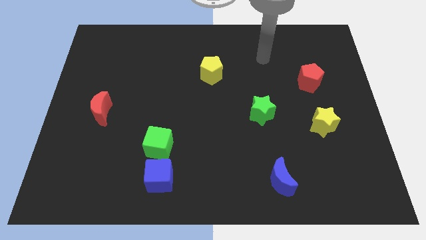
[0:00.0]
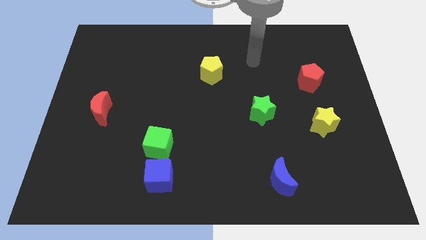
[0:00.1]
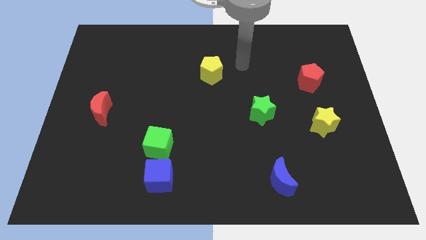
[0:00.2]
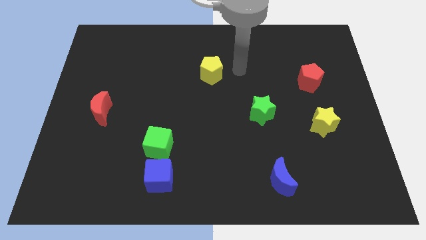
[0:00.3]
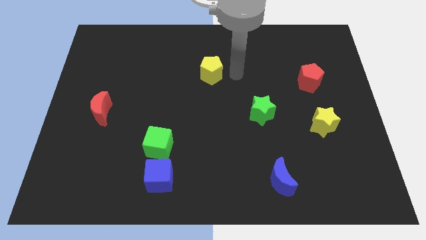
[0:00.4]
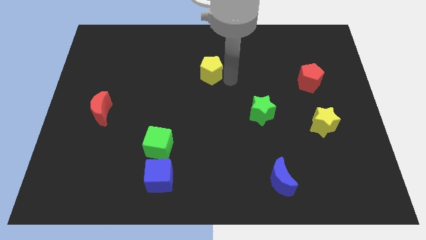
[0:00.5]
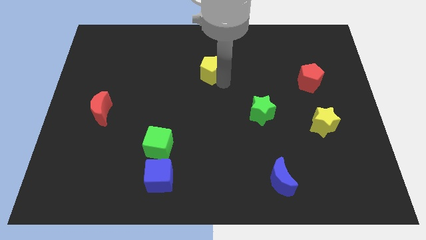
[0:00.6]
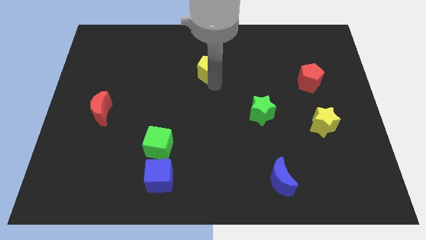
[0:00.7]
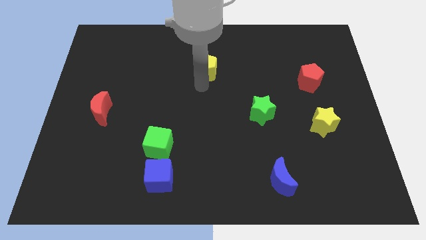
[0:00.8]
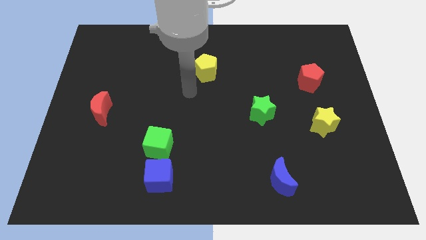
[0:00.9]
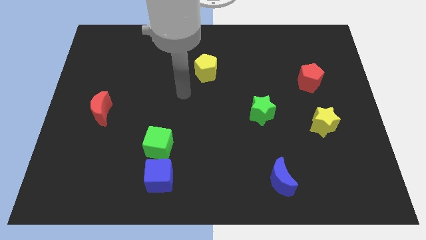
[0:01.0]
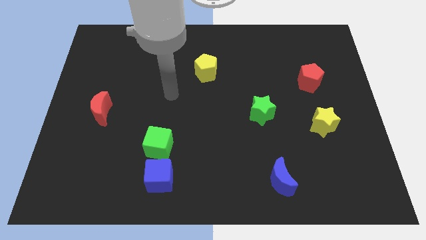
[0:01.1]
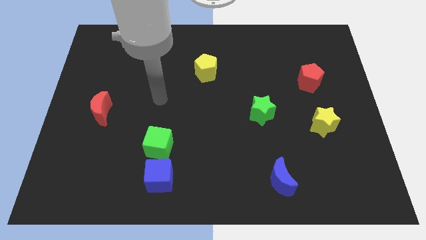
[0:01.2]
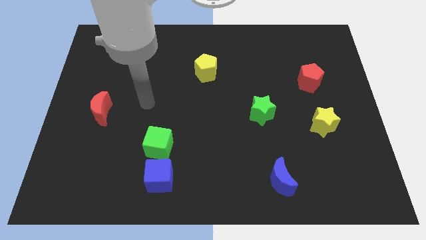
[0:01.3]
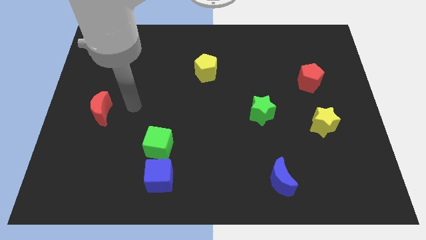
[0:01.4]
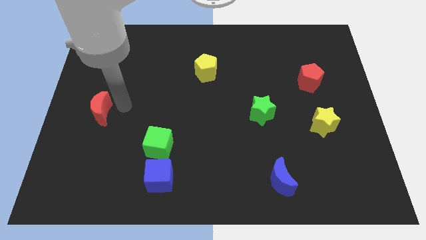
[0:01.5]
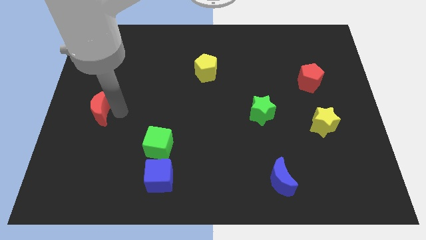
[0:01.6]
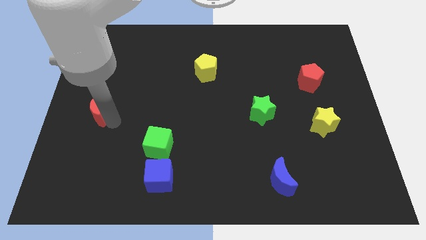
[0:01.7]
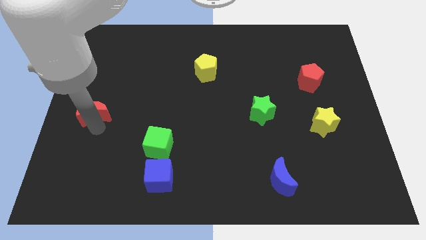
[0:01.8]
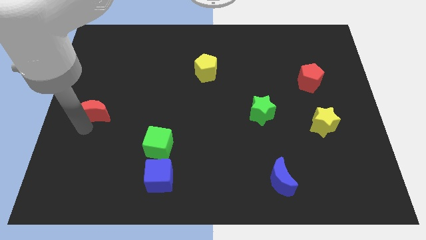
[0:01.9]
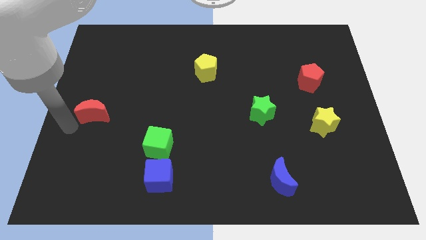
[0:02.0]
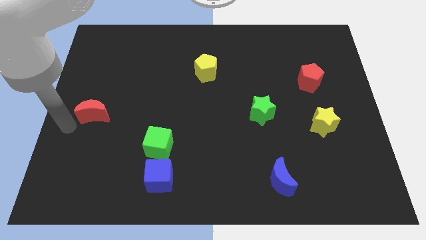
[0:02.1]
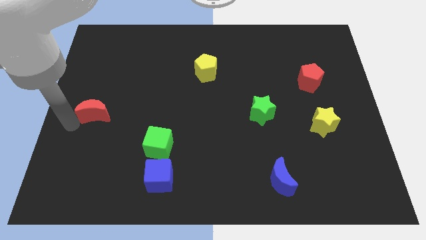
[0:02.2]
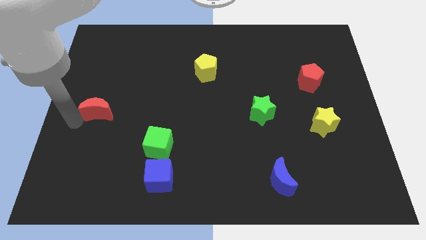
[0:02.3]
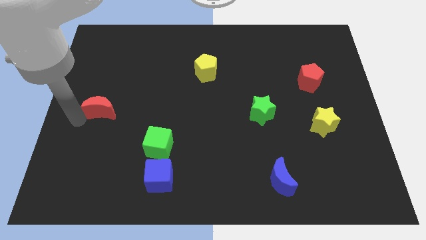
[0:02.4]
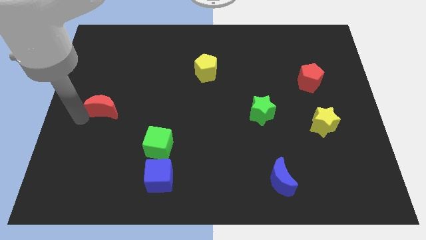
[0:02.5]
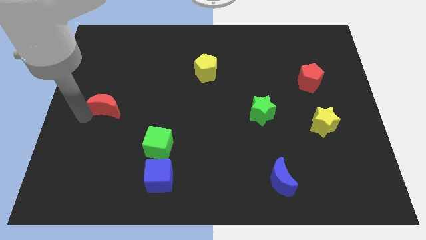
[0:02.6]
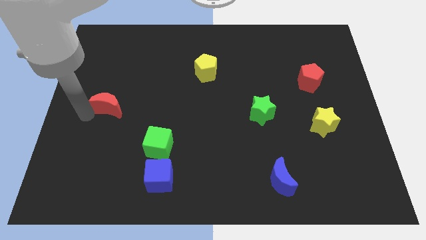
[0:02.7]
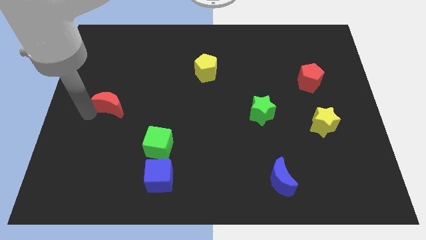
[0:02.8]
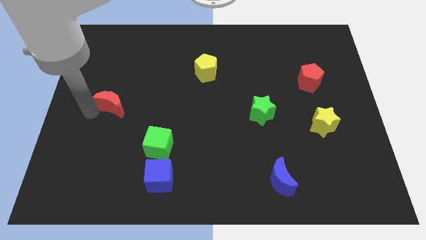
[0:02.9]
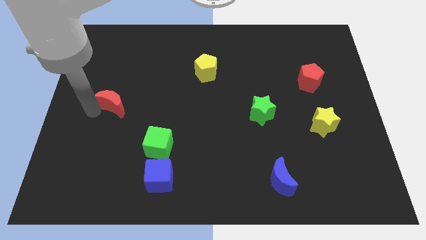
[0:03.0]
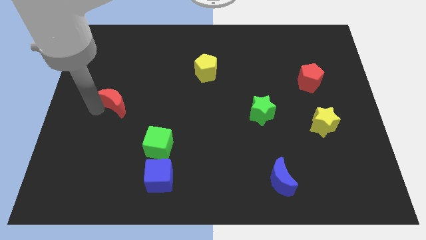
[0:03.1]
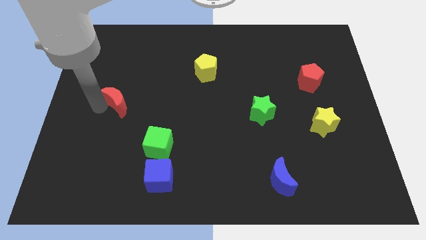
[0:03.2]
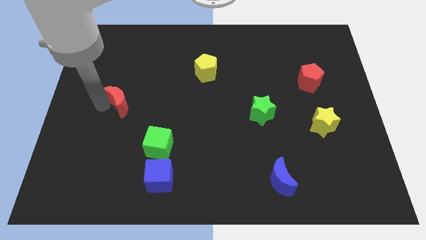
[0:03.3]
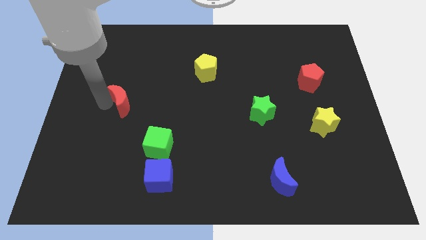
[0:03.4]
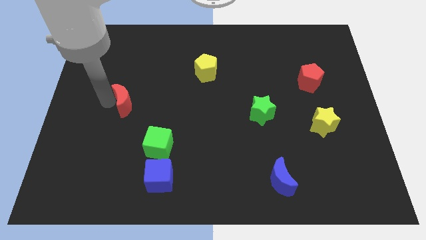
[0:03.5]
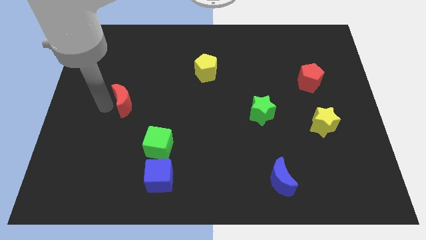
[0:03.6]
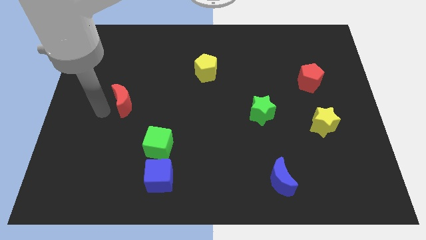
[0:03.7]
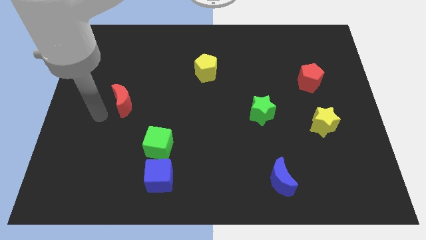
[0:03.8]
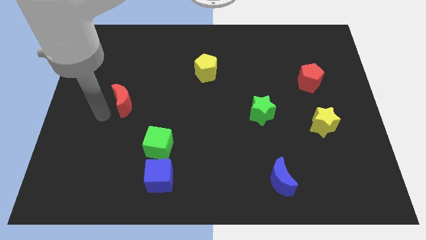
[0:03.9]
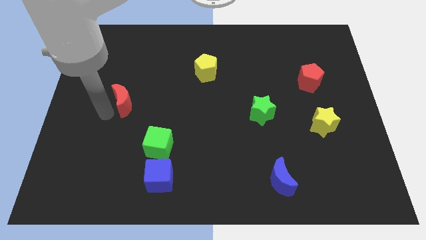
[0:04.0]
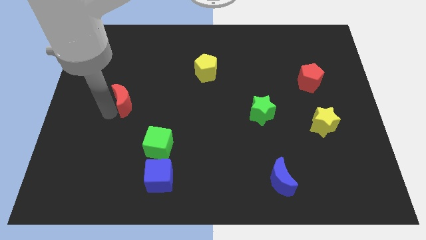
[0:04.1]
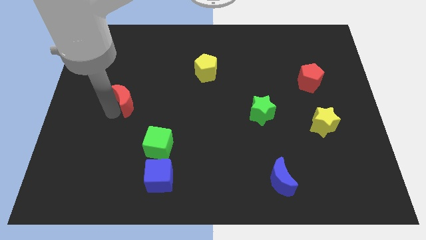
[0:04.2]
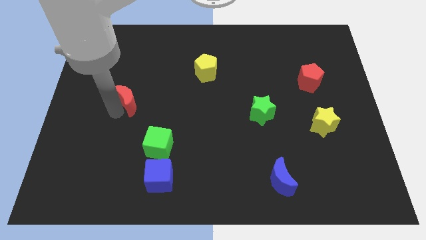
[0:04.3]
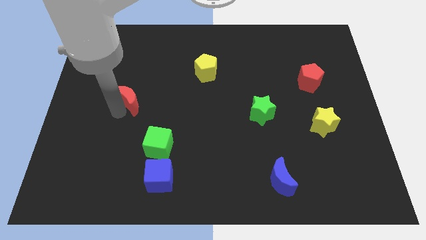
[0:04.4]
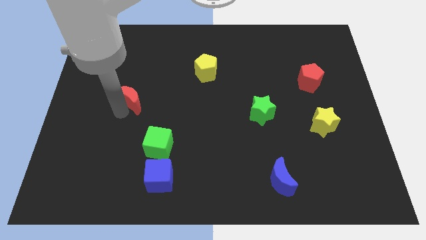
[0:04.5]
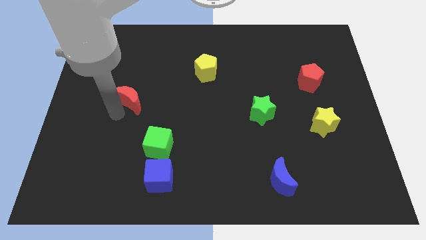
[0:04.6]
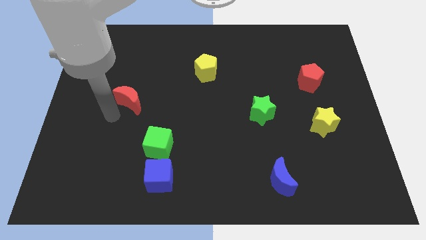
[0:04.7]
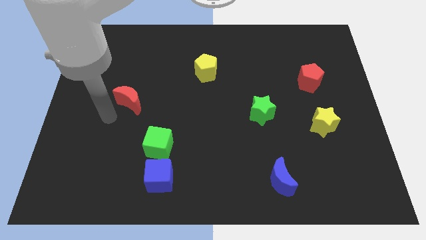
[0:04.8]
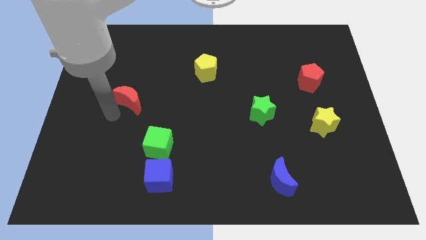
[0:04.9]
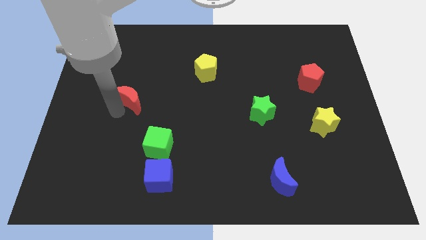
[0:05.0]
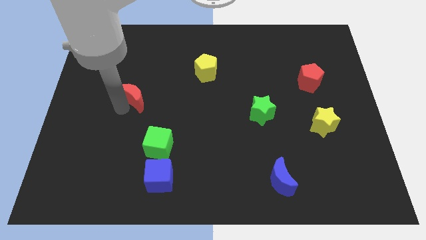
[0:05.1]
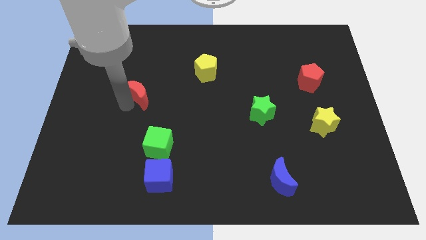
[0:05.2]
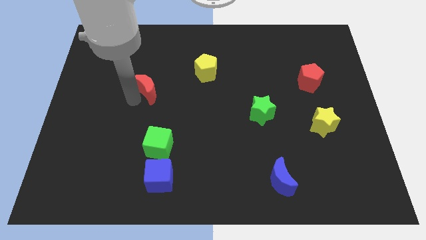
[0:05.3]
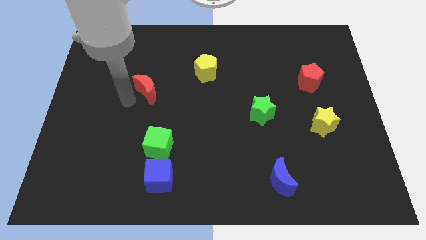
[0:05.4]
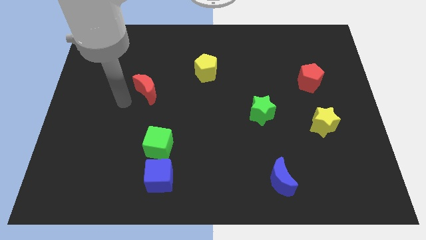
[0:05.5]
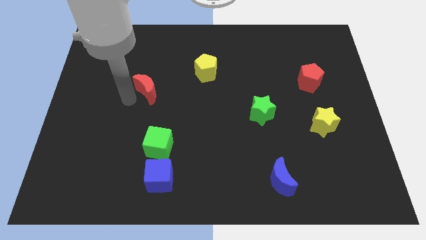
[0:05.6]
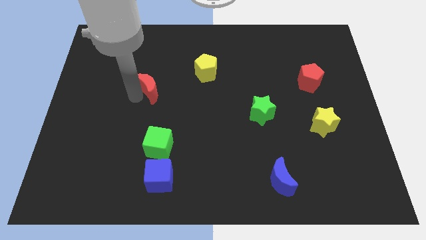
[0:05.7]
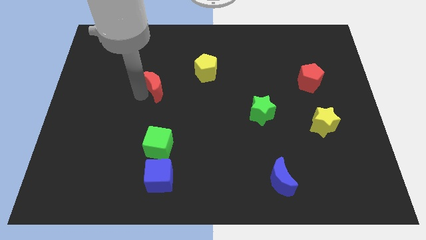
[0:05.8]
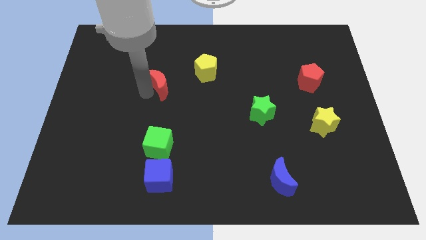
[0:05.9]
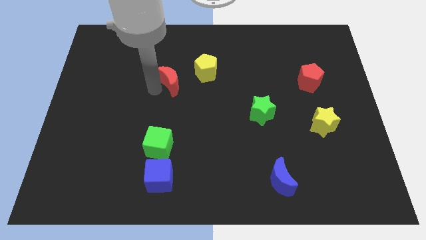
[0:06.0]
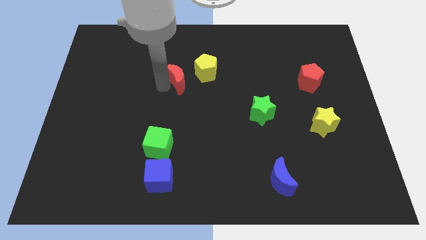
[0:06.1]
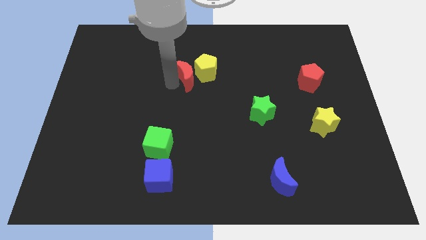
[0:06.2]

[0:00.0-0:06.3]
push the red moon towards the yellow pentagon

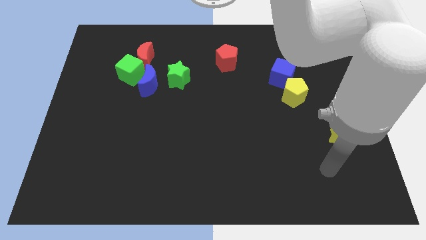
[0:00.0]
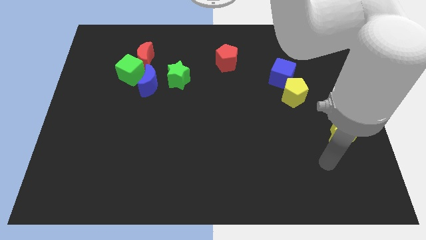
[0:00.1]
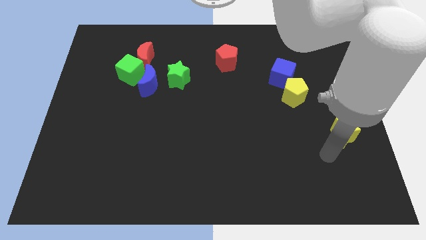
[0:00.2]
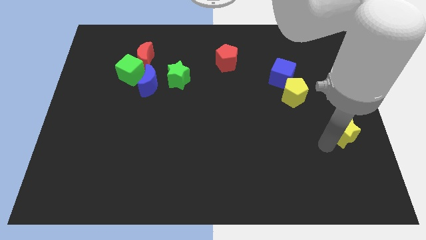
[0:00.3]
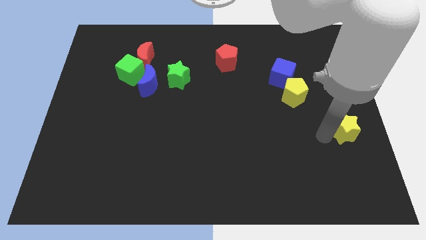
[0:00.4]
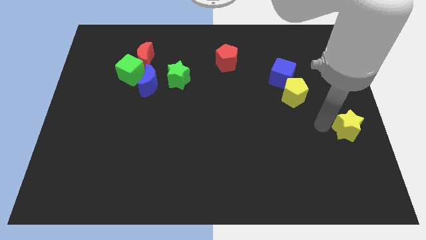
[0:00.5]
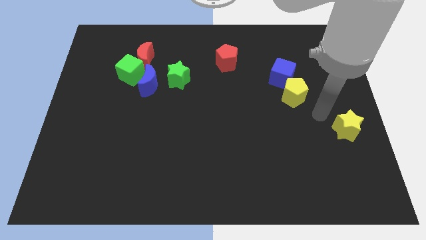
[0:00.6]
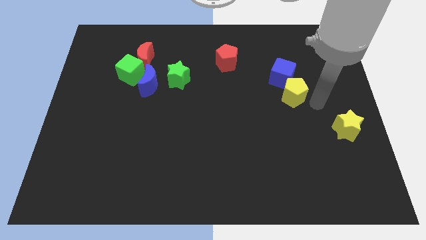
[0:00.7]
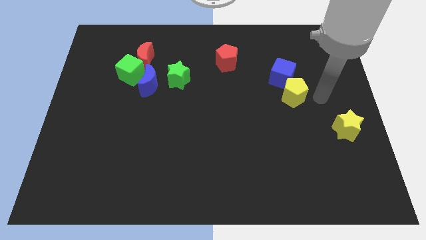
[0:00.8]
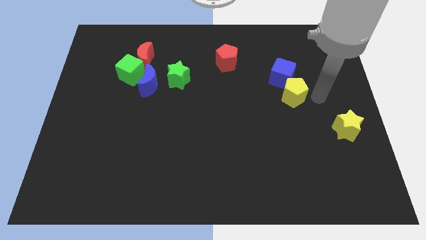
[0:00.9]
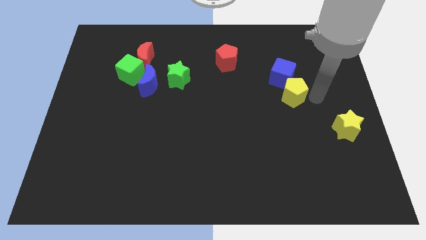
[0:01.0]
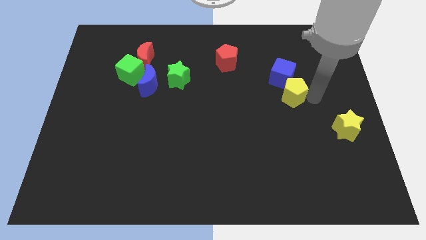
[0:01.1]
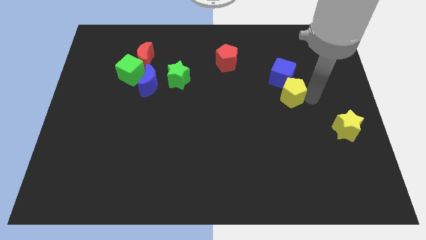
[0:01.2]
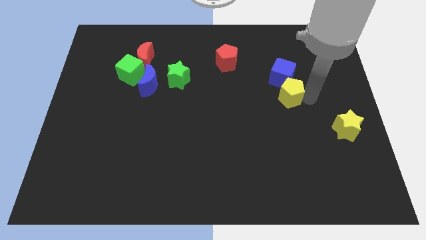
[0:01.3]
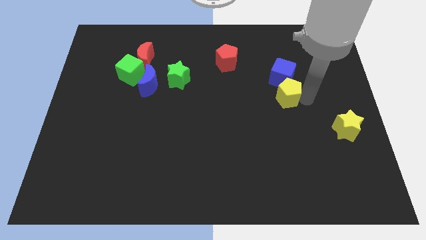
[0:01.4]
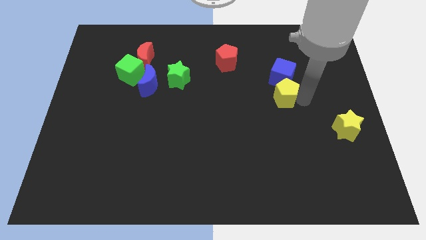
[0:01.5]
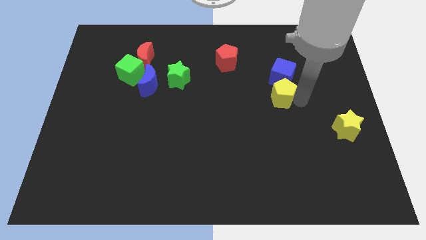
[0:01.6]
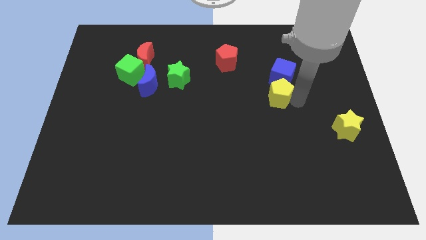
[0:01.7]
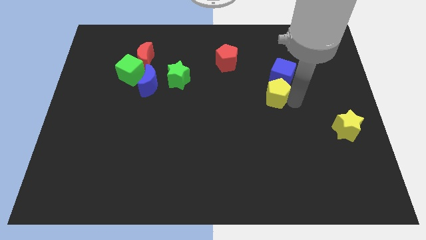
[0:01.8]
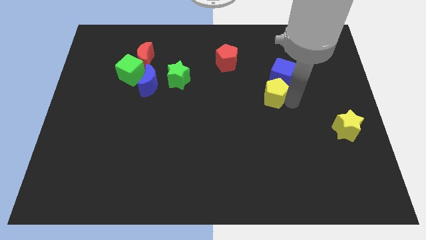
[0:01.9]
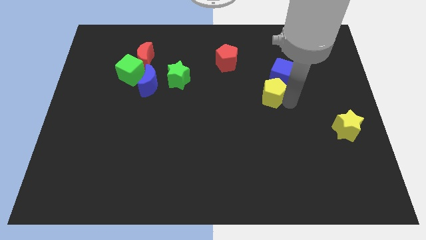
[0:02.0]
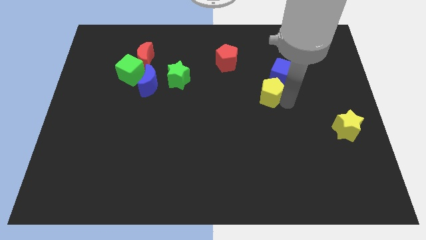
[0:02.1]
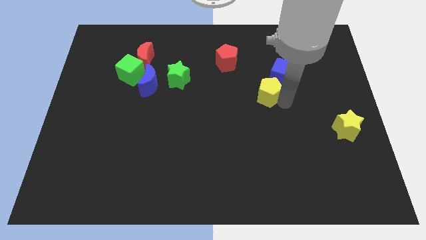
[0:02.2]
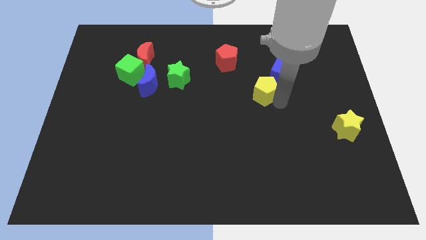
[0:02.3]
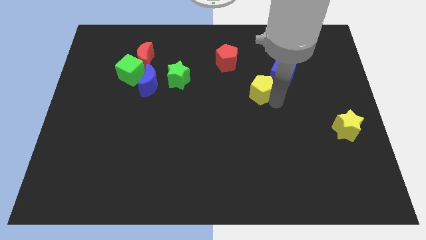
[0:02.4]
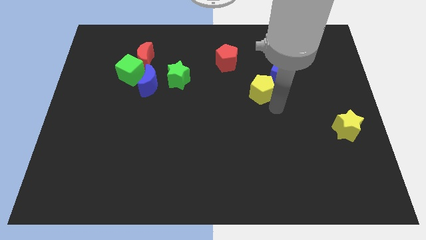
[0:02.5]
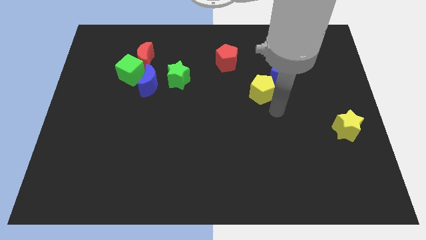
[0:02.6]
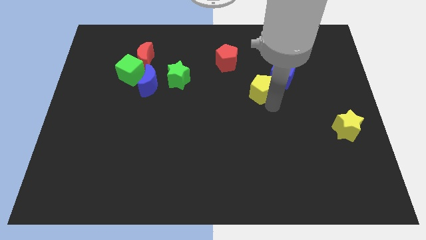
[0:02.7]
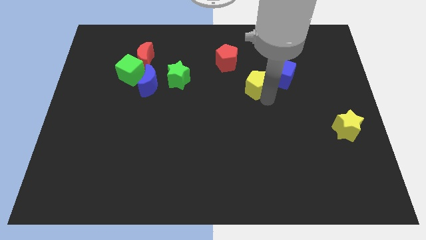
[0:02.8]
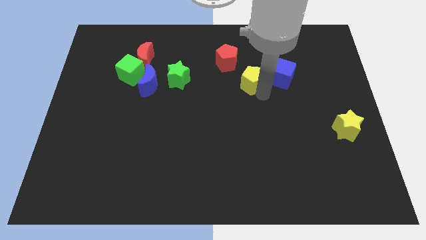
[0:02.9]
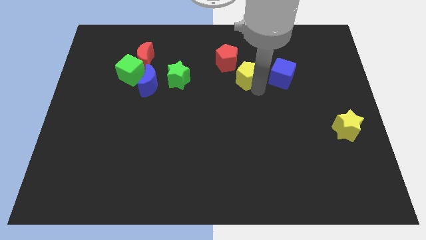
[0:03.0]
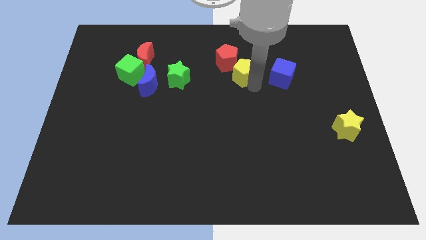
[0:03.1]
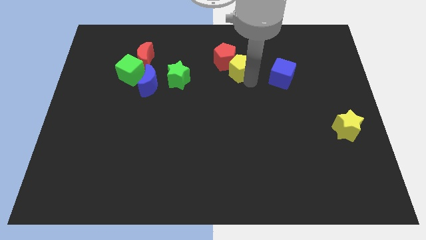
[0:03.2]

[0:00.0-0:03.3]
put the yellow pentagon next to the red pentagon
